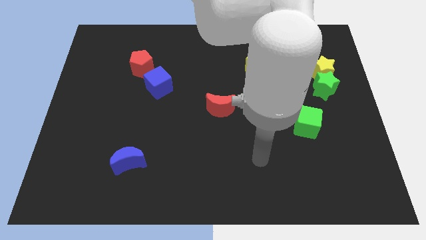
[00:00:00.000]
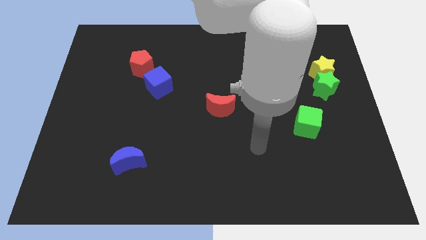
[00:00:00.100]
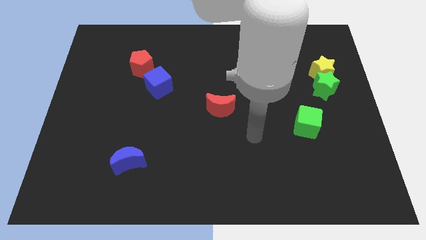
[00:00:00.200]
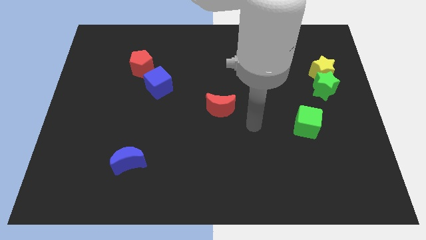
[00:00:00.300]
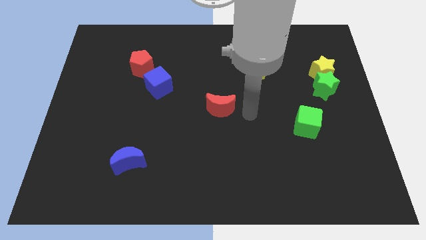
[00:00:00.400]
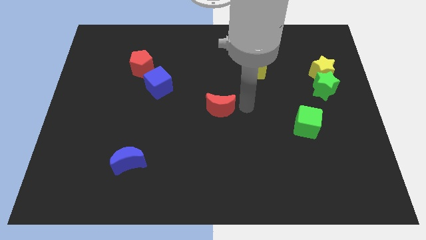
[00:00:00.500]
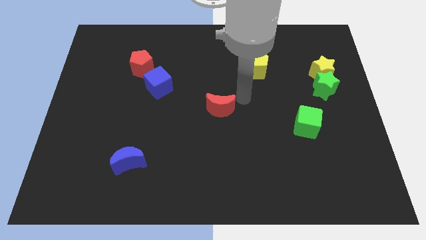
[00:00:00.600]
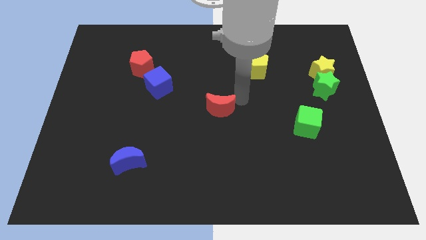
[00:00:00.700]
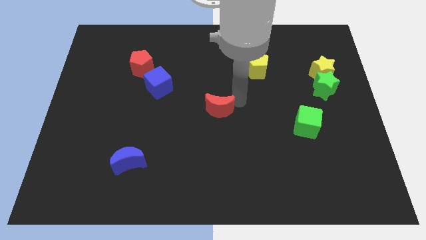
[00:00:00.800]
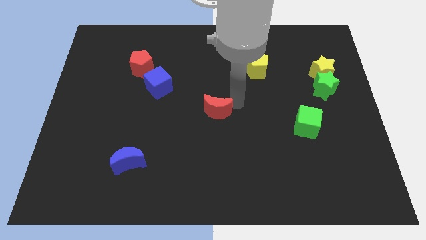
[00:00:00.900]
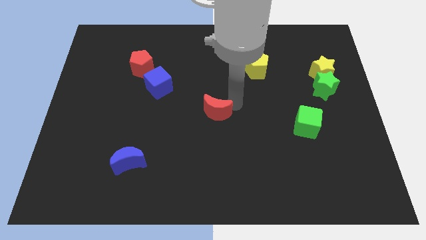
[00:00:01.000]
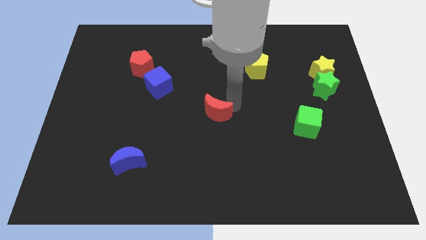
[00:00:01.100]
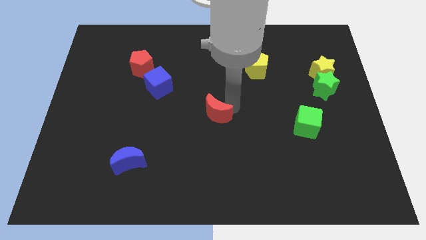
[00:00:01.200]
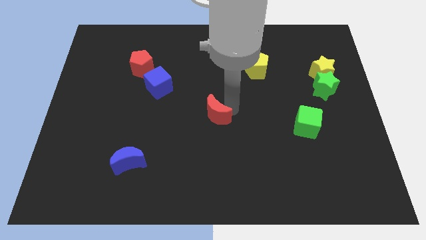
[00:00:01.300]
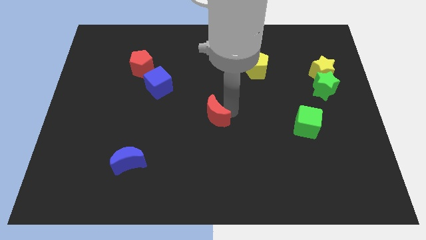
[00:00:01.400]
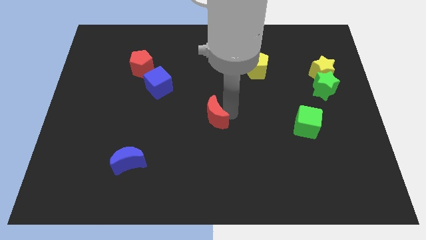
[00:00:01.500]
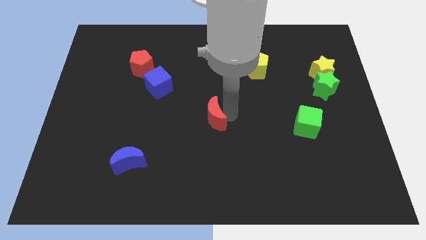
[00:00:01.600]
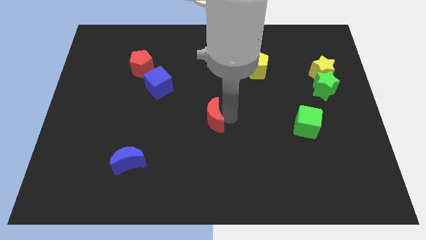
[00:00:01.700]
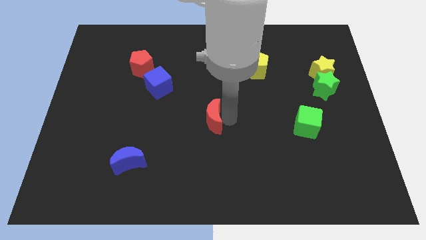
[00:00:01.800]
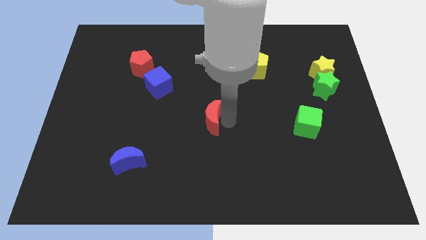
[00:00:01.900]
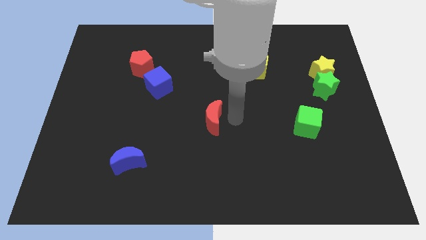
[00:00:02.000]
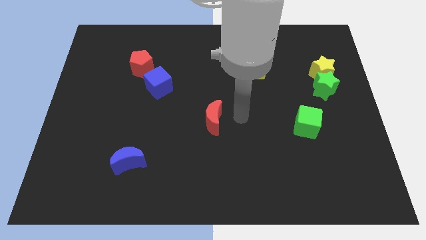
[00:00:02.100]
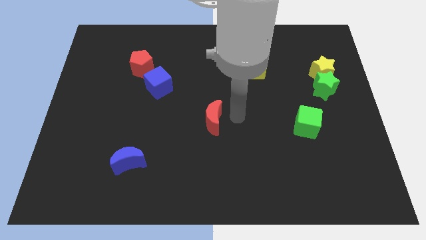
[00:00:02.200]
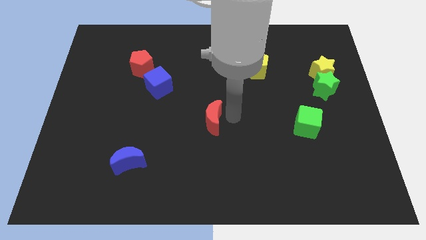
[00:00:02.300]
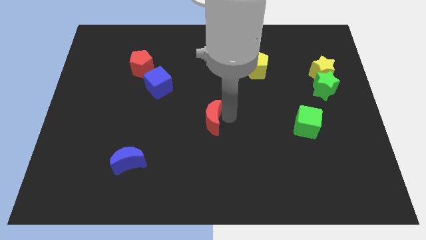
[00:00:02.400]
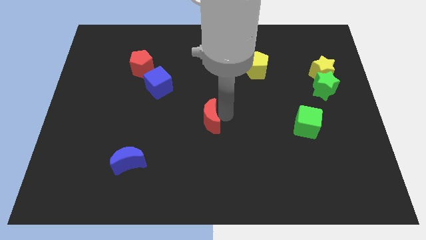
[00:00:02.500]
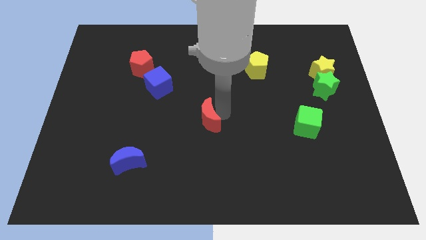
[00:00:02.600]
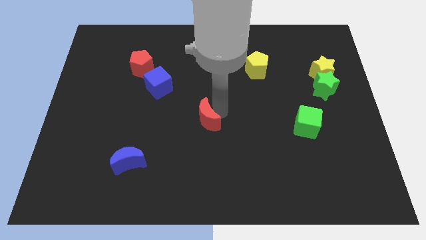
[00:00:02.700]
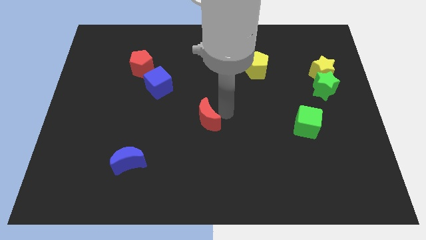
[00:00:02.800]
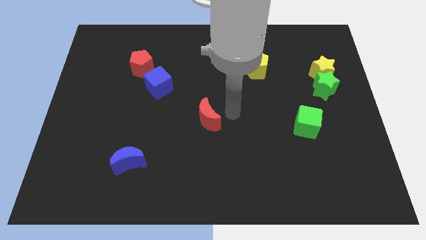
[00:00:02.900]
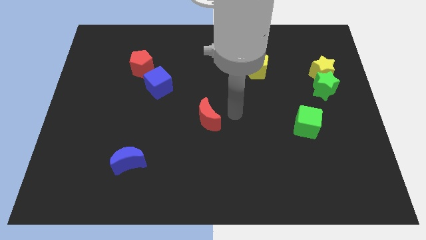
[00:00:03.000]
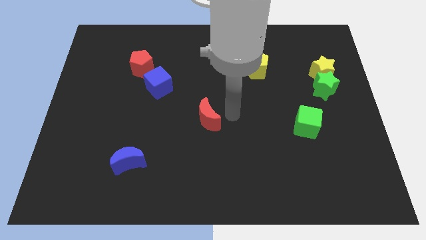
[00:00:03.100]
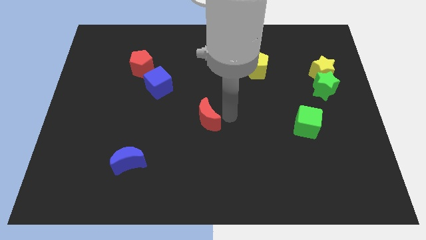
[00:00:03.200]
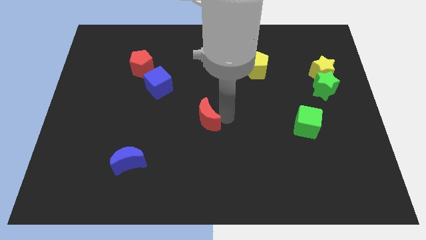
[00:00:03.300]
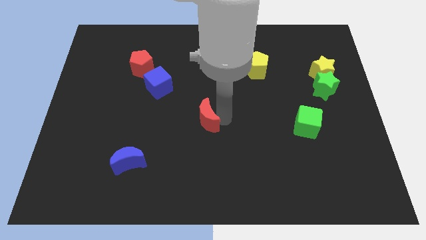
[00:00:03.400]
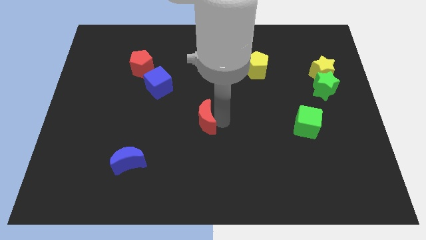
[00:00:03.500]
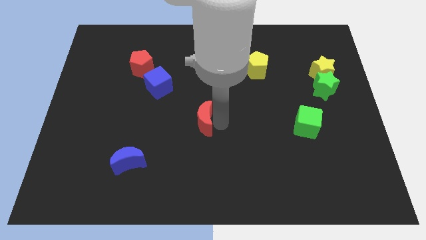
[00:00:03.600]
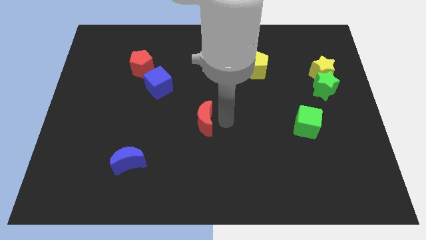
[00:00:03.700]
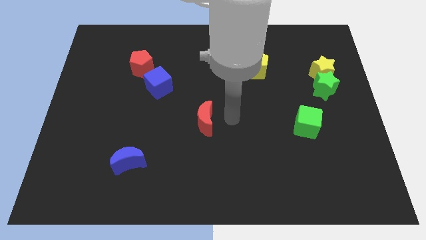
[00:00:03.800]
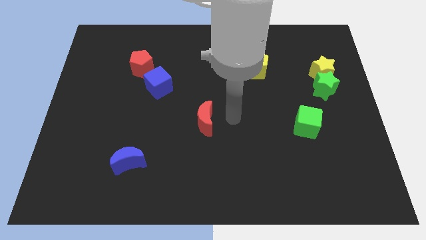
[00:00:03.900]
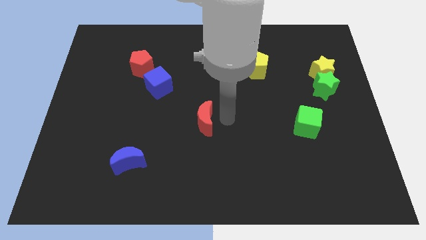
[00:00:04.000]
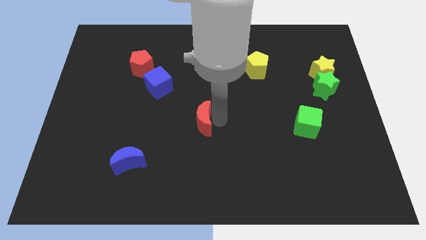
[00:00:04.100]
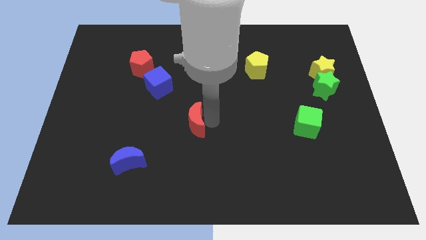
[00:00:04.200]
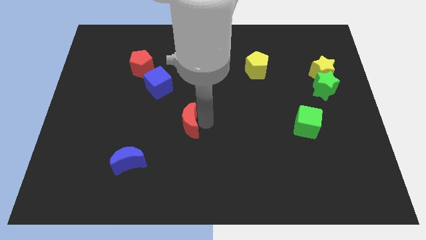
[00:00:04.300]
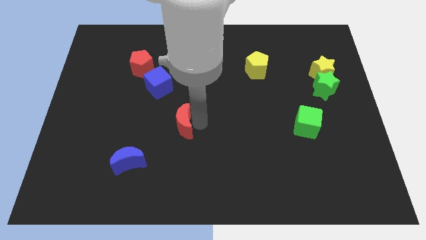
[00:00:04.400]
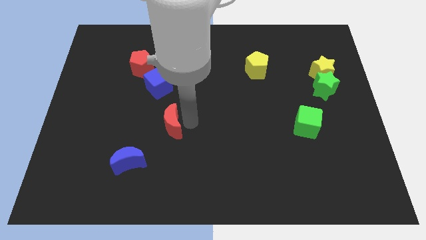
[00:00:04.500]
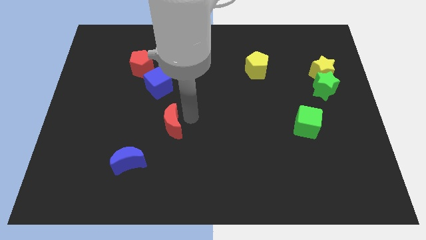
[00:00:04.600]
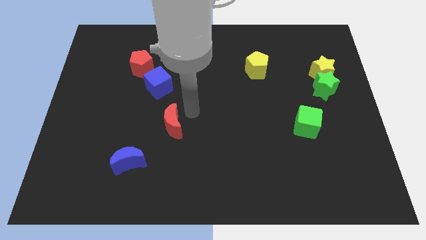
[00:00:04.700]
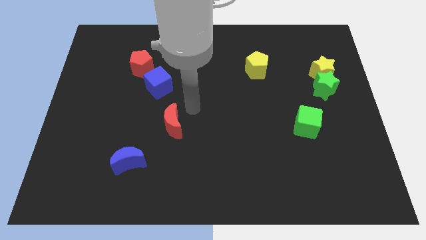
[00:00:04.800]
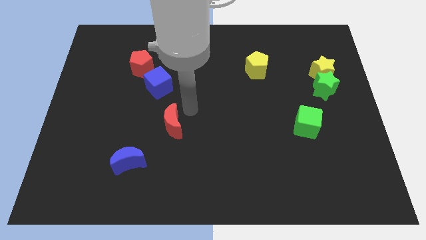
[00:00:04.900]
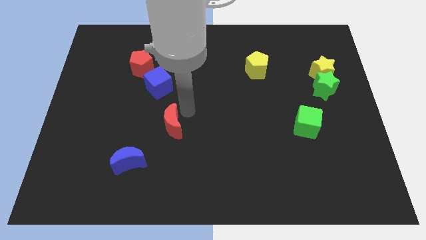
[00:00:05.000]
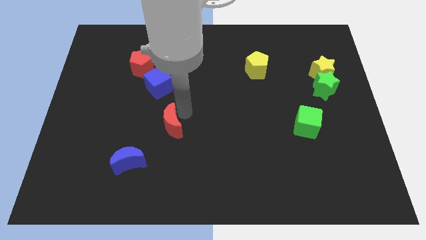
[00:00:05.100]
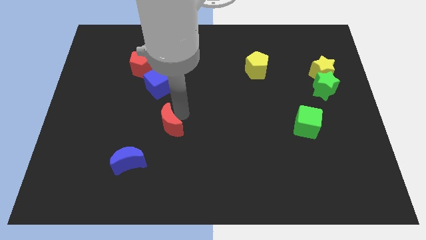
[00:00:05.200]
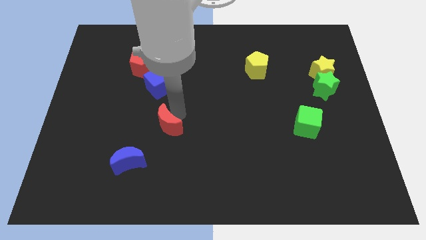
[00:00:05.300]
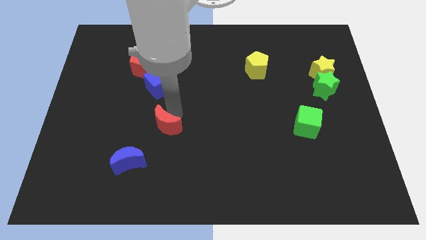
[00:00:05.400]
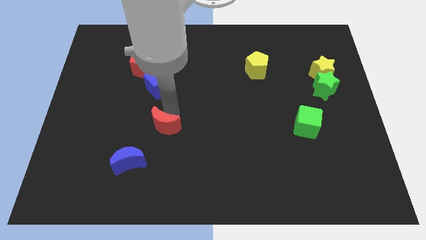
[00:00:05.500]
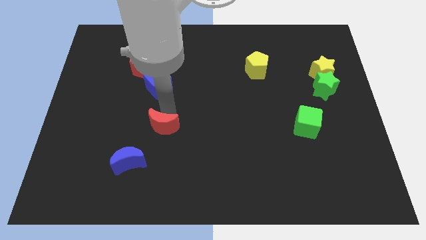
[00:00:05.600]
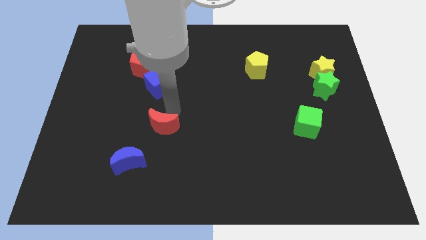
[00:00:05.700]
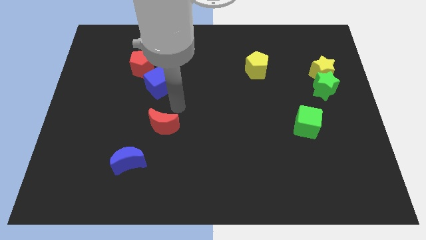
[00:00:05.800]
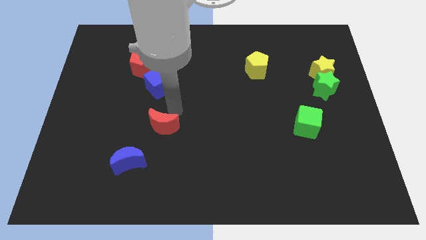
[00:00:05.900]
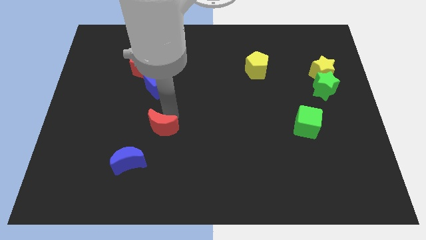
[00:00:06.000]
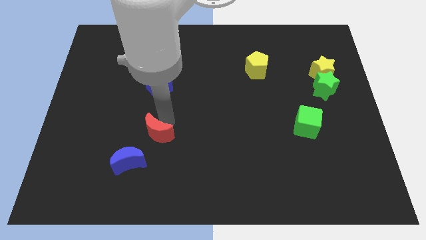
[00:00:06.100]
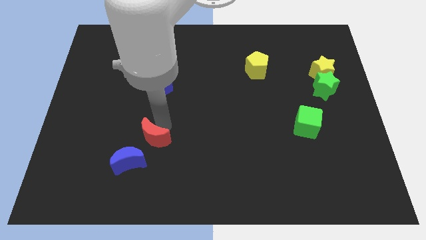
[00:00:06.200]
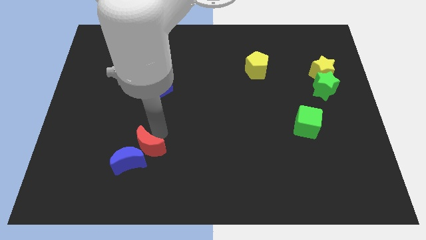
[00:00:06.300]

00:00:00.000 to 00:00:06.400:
push the red moon next to the blue moon
